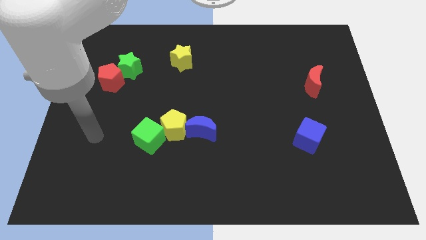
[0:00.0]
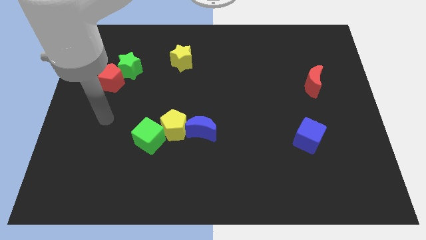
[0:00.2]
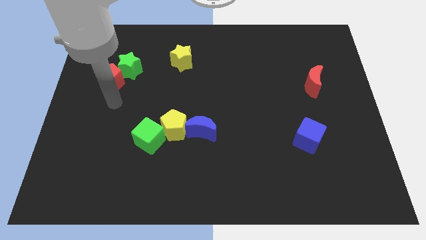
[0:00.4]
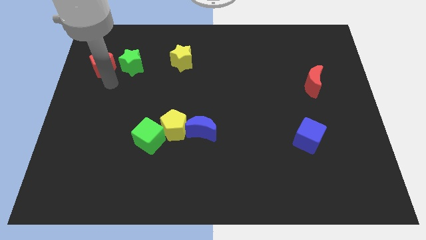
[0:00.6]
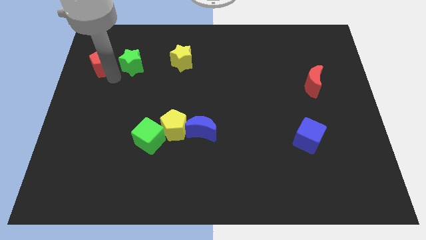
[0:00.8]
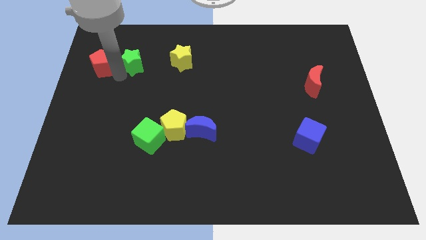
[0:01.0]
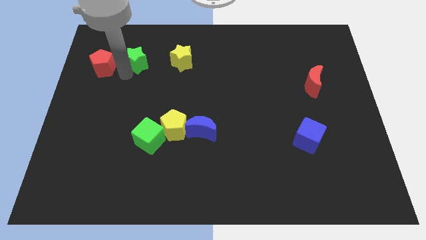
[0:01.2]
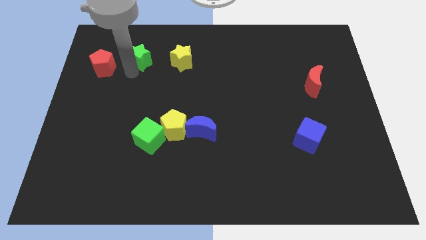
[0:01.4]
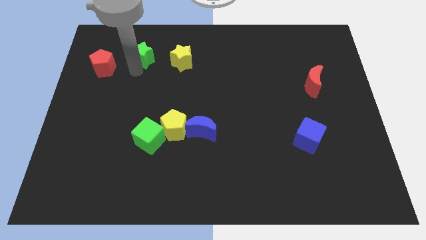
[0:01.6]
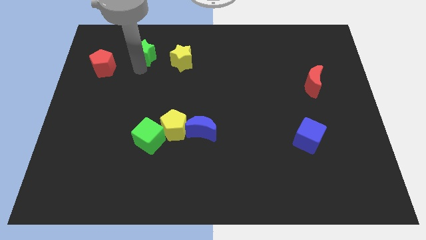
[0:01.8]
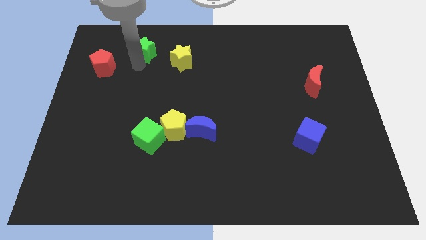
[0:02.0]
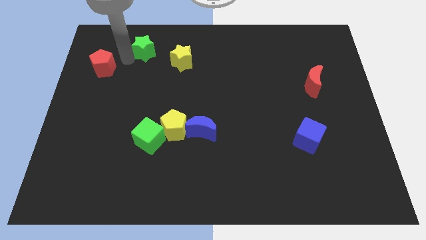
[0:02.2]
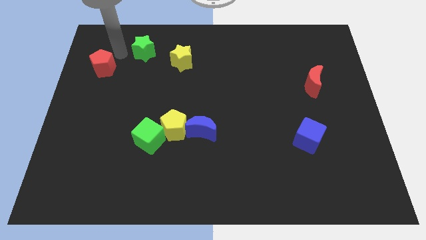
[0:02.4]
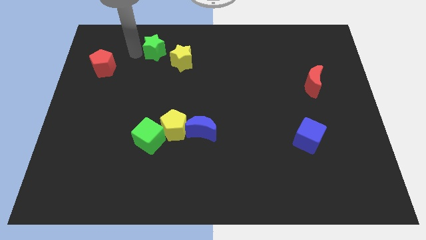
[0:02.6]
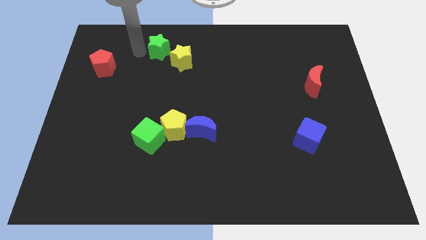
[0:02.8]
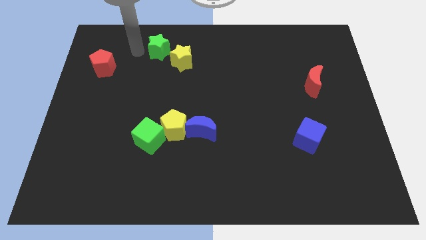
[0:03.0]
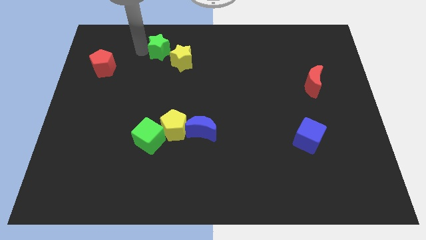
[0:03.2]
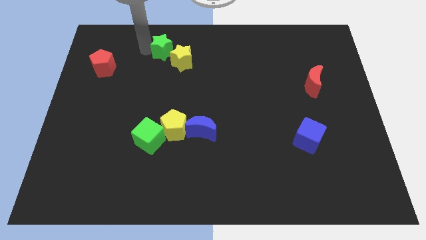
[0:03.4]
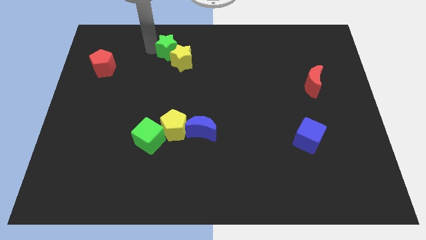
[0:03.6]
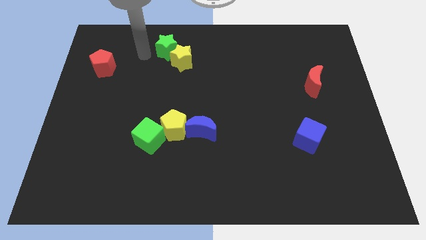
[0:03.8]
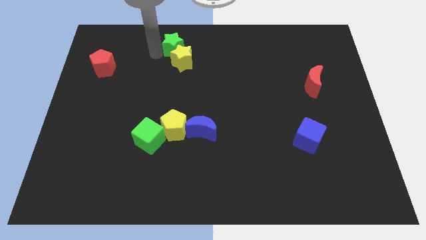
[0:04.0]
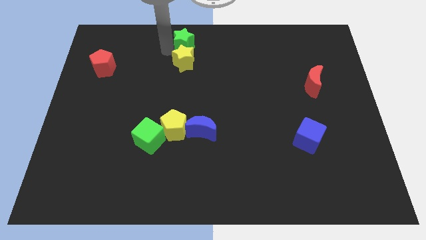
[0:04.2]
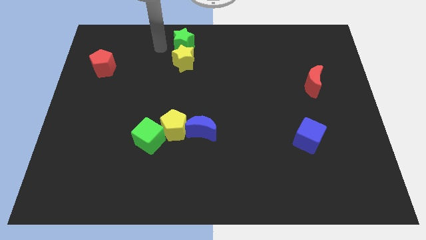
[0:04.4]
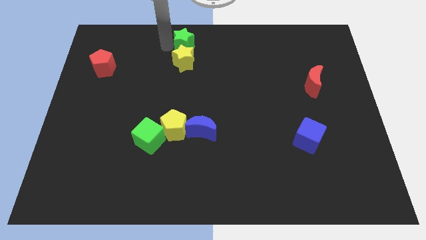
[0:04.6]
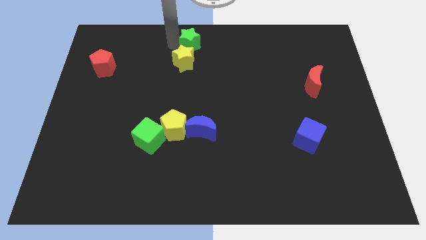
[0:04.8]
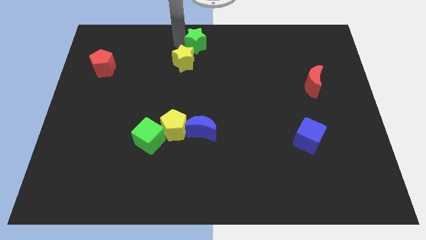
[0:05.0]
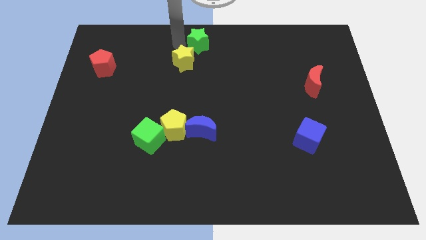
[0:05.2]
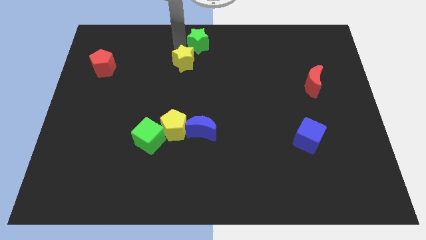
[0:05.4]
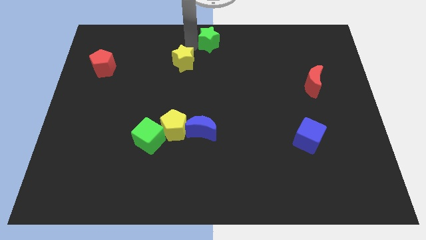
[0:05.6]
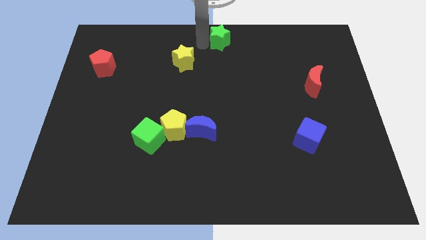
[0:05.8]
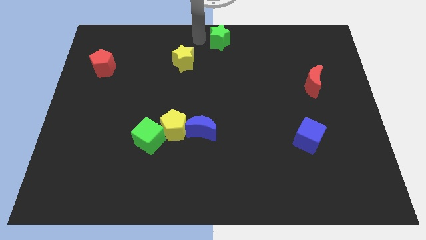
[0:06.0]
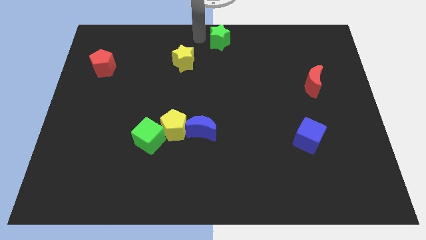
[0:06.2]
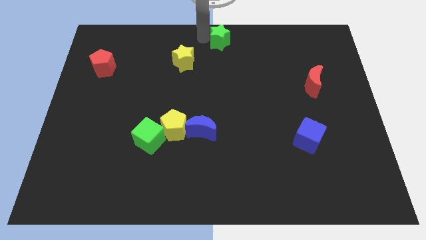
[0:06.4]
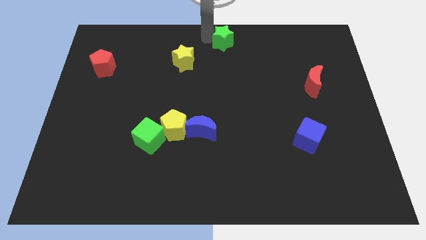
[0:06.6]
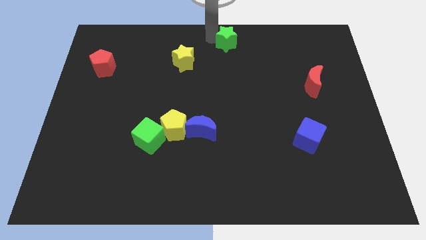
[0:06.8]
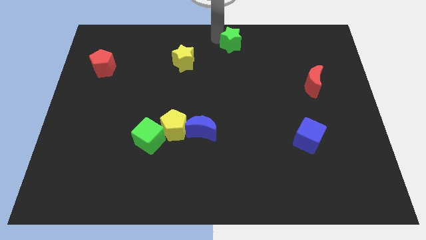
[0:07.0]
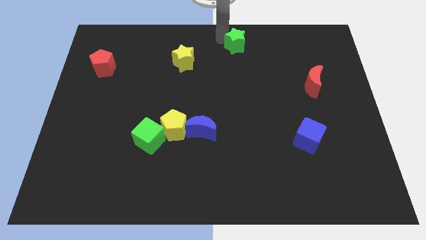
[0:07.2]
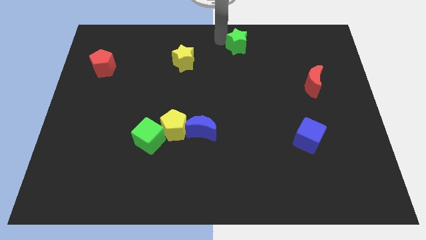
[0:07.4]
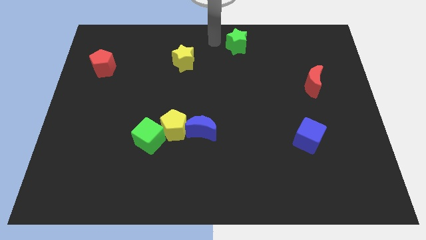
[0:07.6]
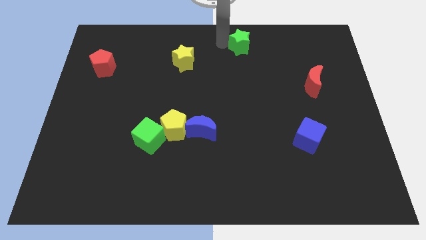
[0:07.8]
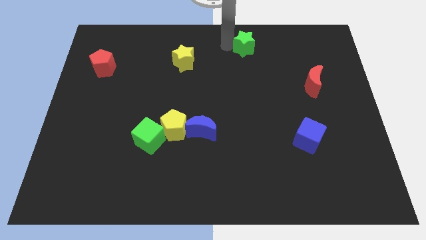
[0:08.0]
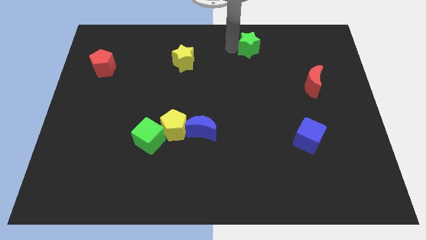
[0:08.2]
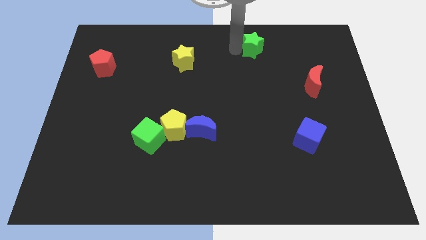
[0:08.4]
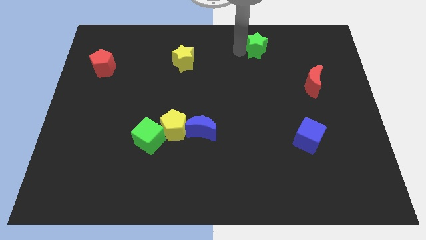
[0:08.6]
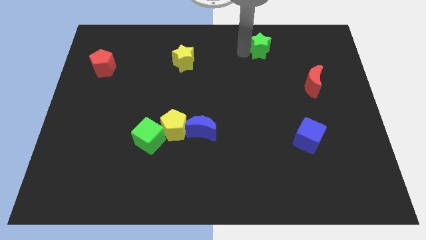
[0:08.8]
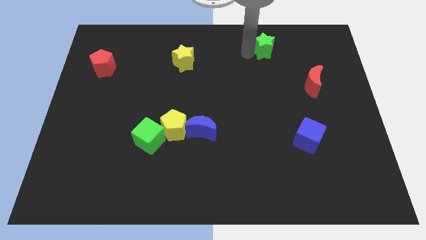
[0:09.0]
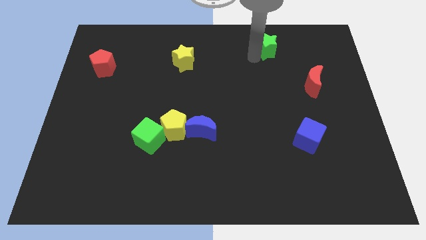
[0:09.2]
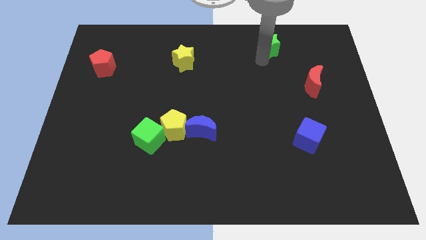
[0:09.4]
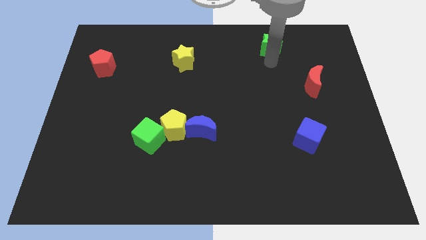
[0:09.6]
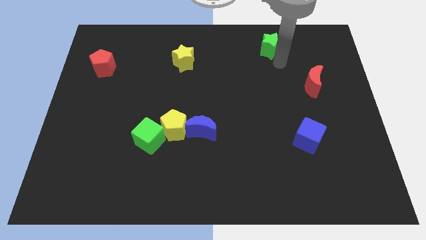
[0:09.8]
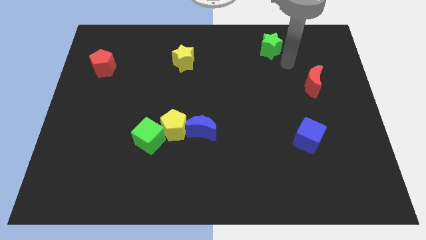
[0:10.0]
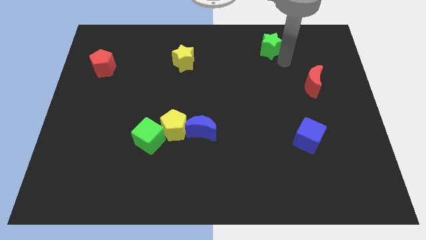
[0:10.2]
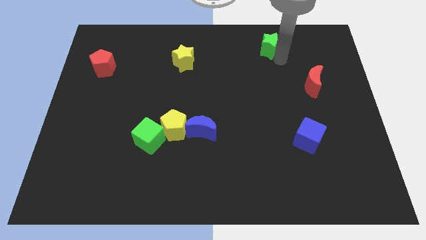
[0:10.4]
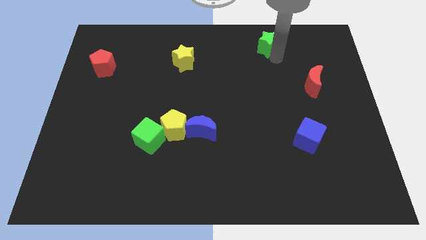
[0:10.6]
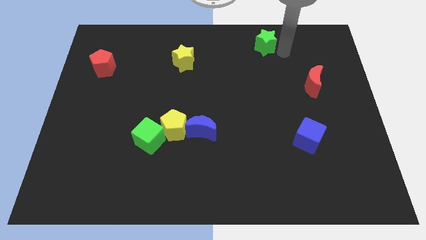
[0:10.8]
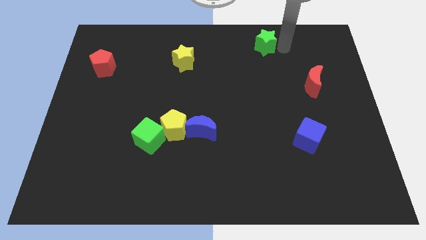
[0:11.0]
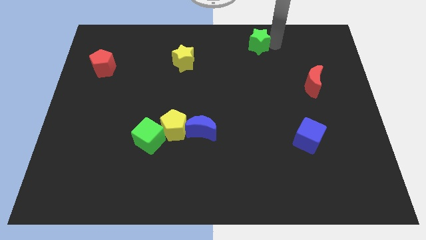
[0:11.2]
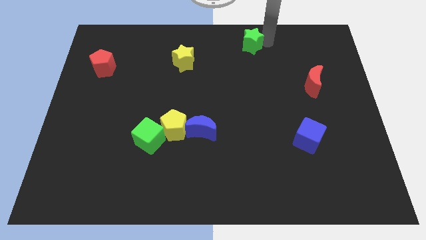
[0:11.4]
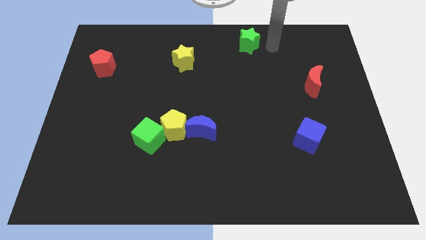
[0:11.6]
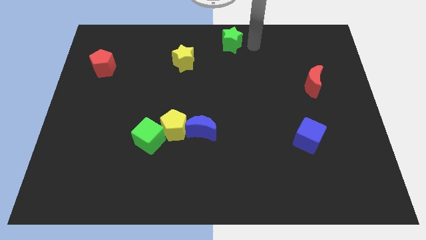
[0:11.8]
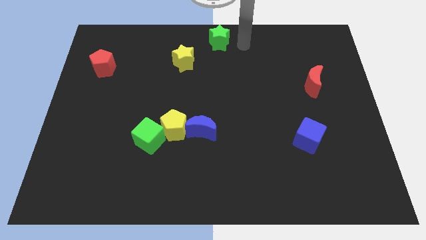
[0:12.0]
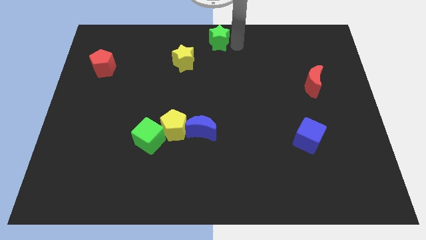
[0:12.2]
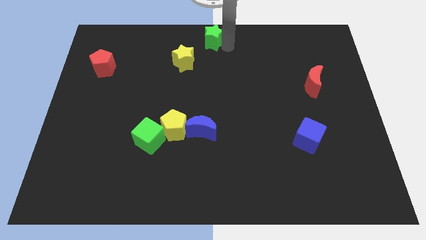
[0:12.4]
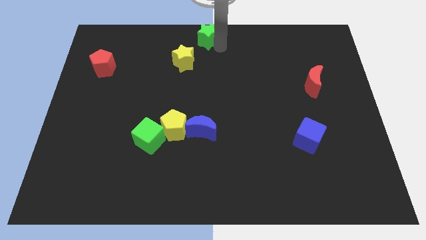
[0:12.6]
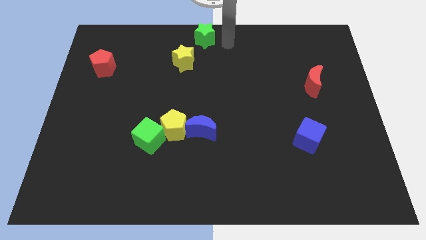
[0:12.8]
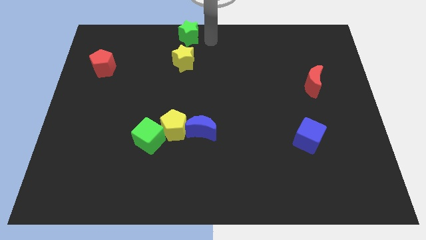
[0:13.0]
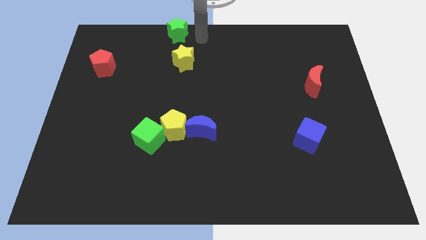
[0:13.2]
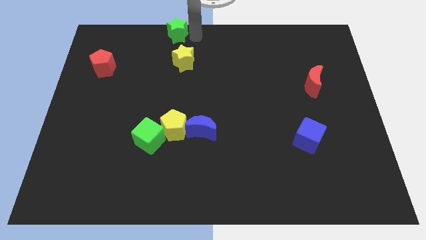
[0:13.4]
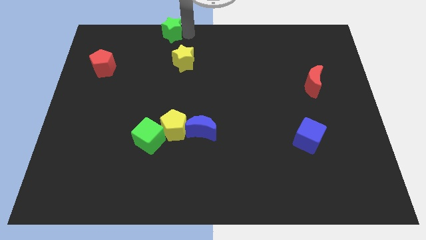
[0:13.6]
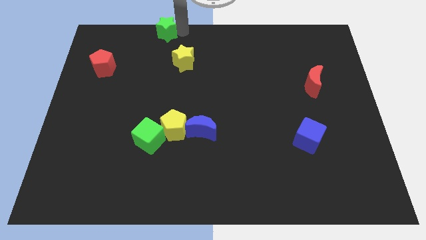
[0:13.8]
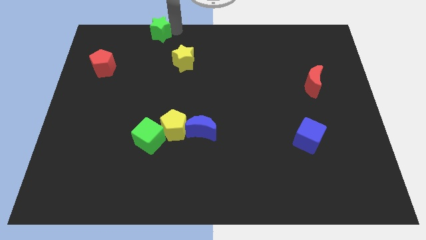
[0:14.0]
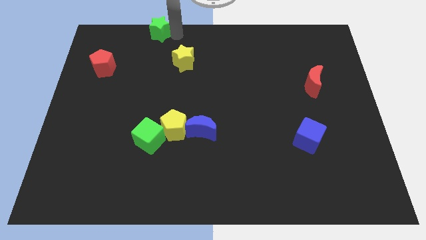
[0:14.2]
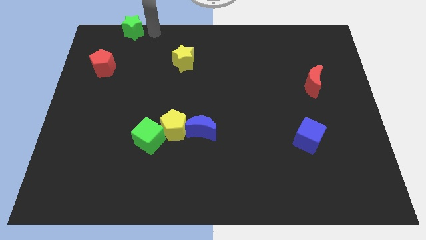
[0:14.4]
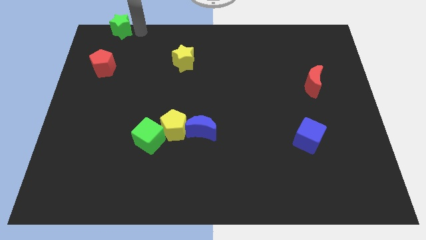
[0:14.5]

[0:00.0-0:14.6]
move the green star to the top left
